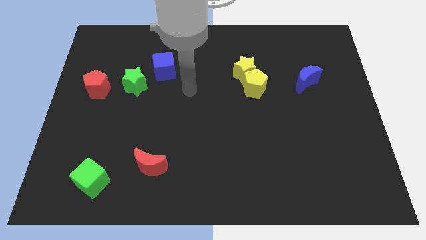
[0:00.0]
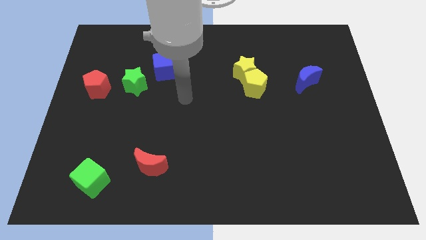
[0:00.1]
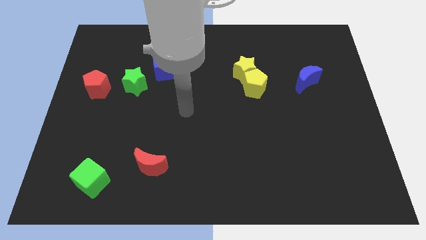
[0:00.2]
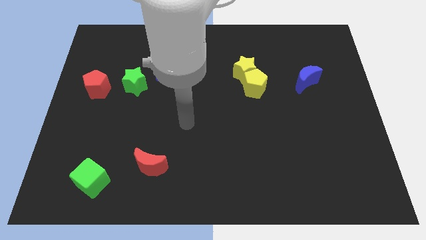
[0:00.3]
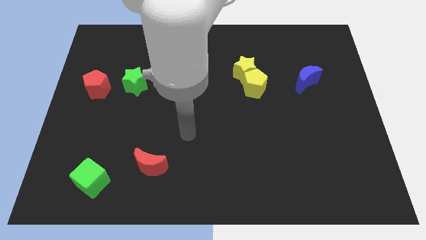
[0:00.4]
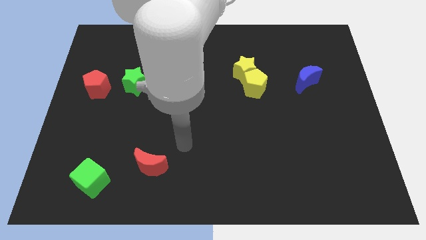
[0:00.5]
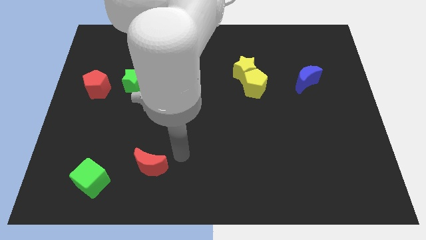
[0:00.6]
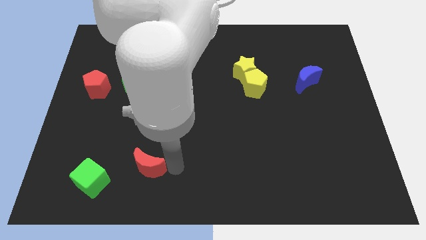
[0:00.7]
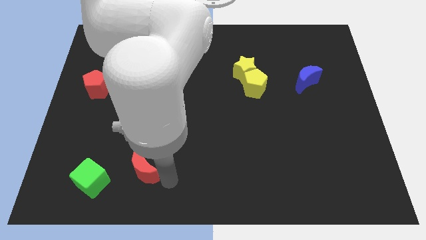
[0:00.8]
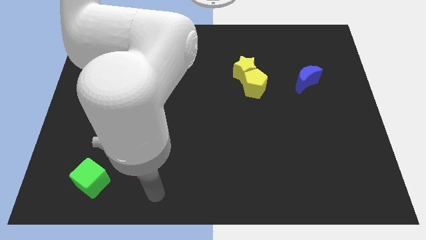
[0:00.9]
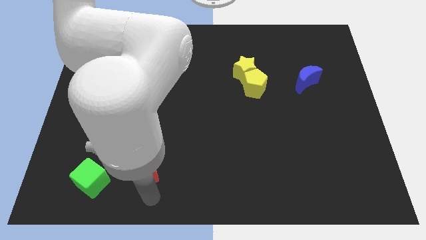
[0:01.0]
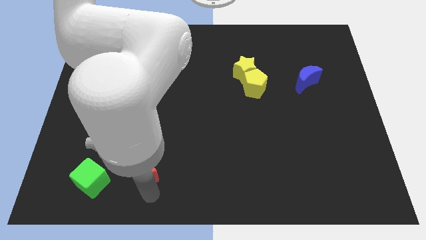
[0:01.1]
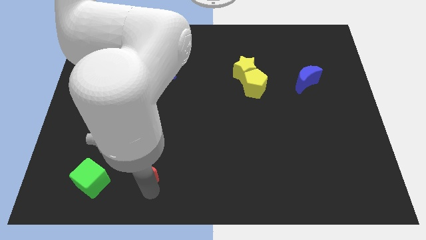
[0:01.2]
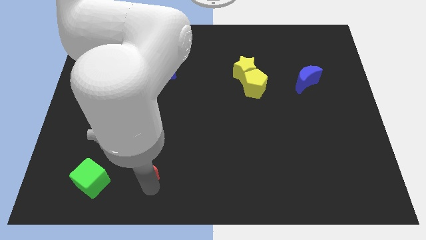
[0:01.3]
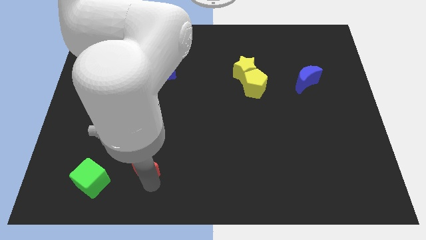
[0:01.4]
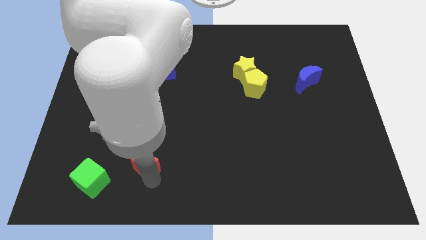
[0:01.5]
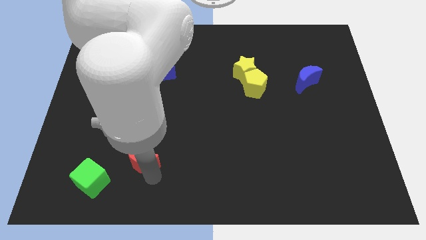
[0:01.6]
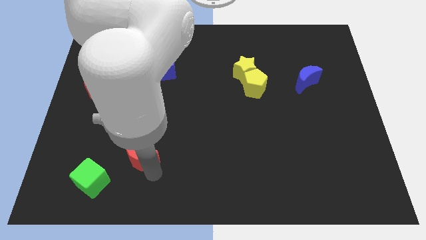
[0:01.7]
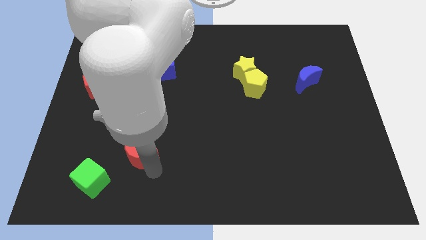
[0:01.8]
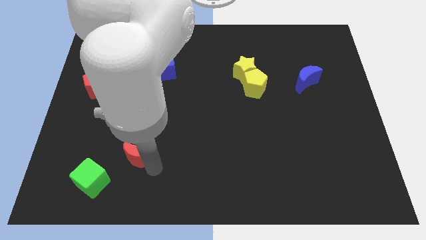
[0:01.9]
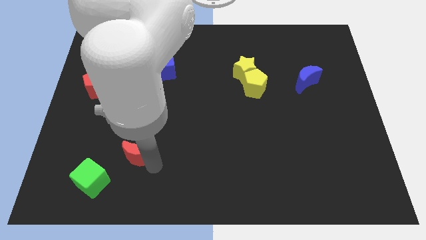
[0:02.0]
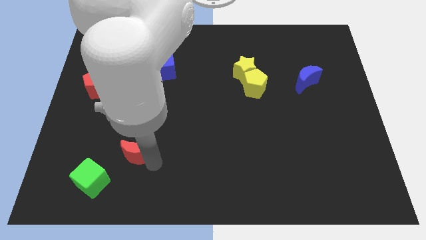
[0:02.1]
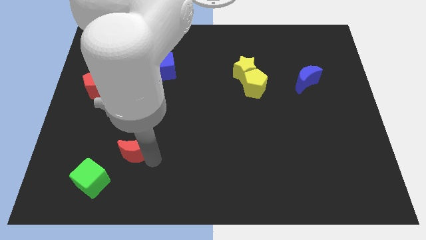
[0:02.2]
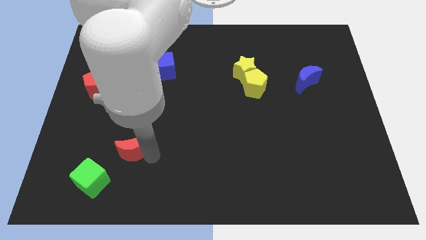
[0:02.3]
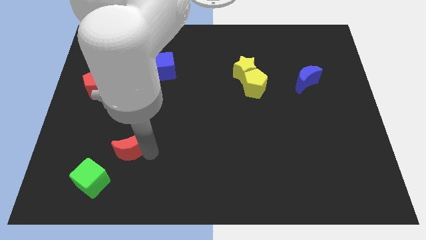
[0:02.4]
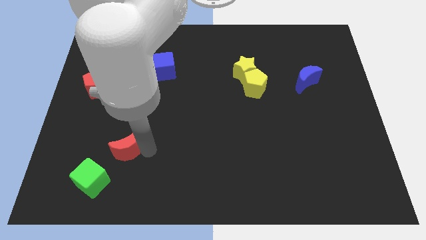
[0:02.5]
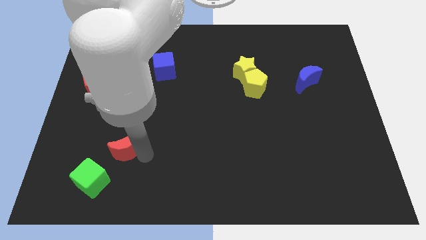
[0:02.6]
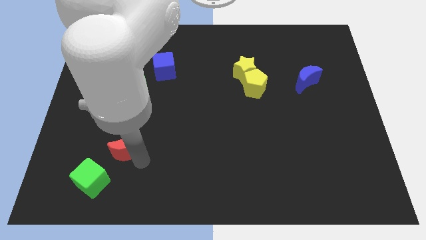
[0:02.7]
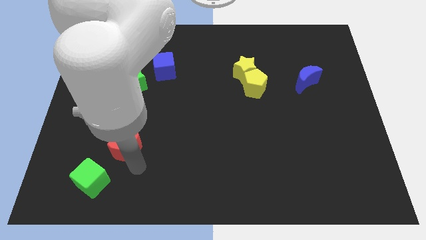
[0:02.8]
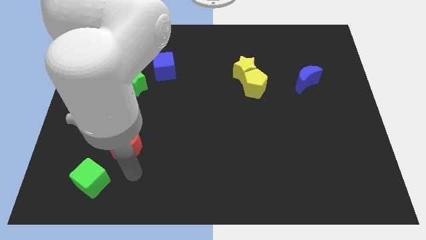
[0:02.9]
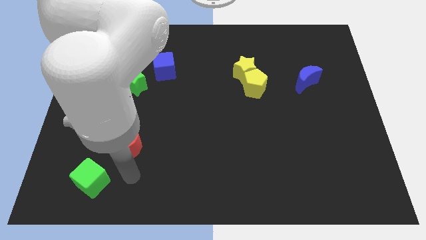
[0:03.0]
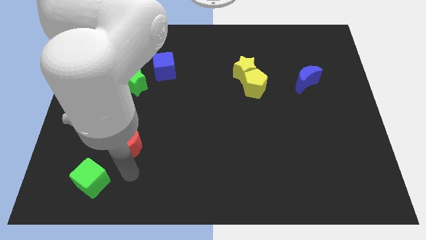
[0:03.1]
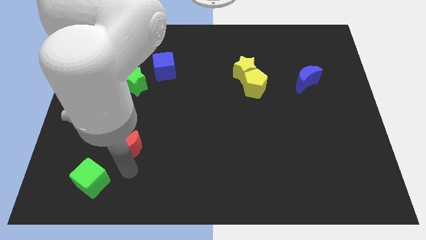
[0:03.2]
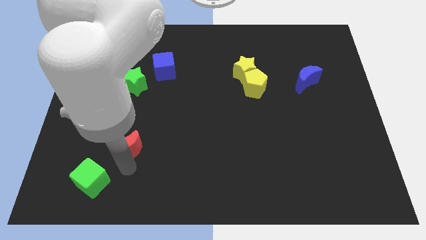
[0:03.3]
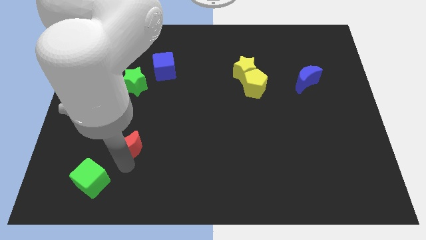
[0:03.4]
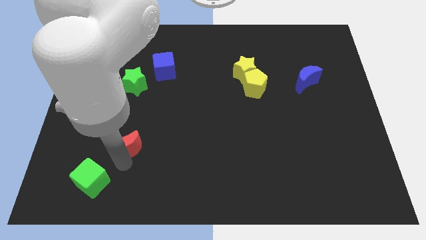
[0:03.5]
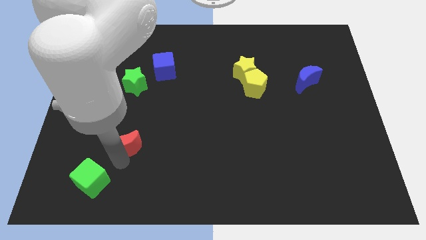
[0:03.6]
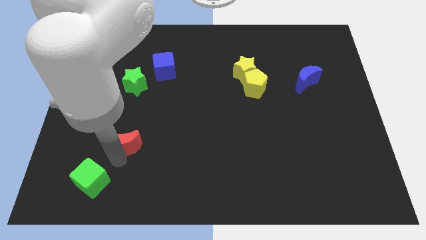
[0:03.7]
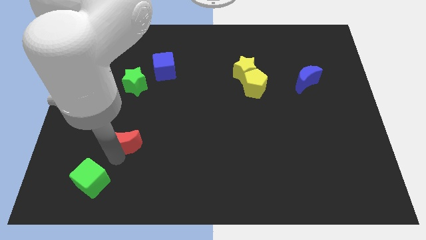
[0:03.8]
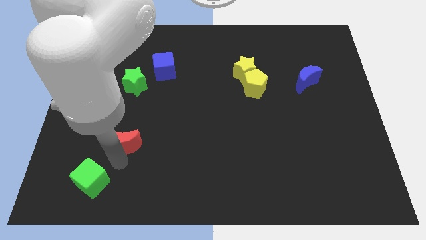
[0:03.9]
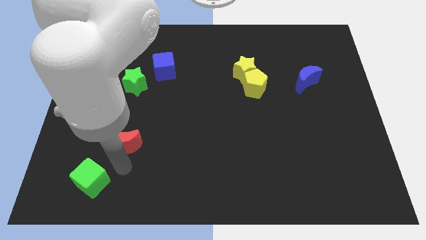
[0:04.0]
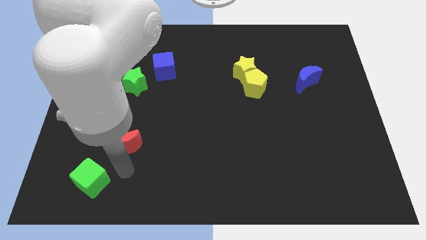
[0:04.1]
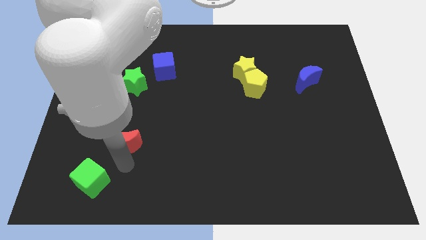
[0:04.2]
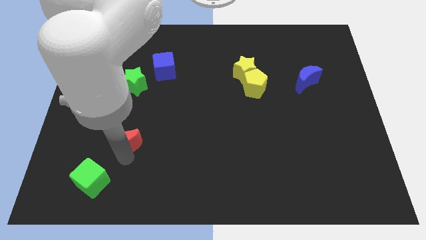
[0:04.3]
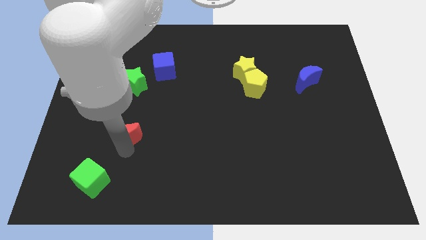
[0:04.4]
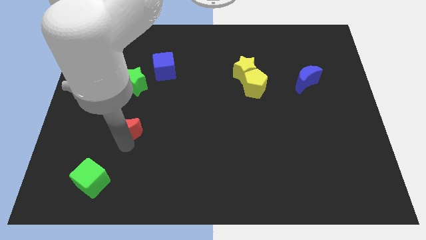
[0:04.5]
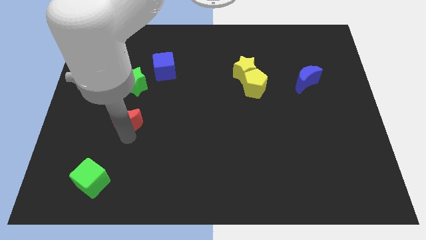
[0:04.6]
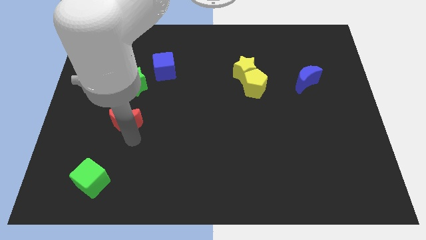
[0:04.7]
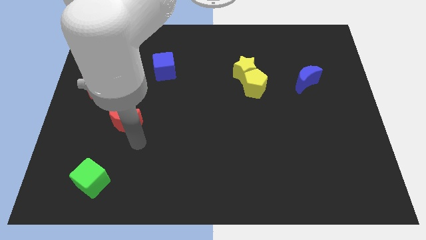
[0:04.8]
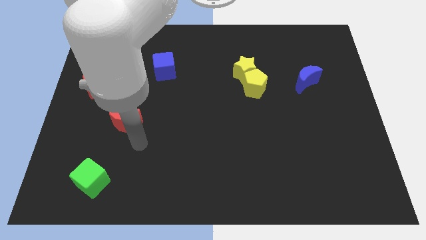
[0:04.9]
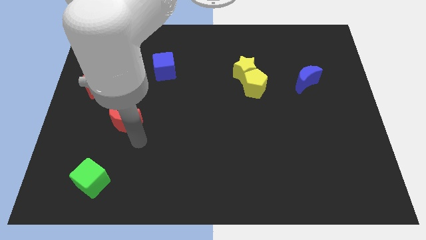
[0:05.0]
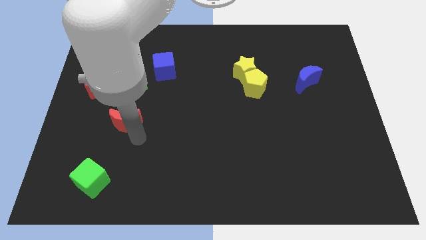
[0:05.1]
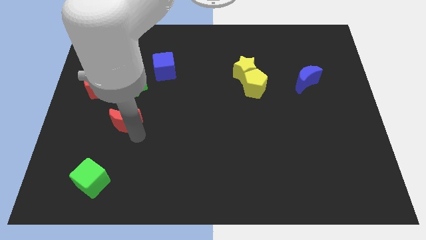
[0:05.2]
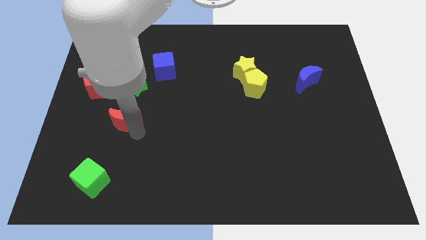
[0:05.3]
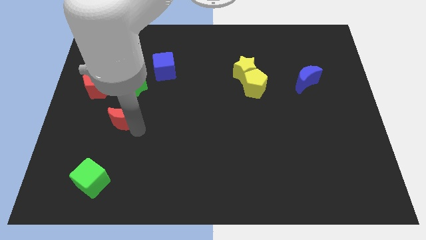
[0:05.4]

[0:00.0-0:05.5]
push the red moon to the bottom right of the red pentagon

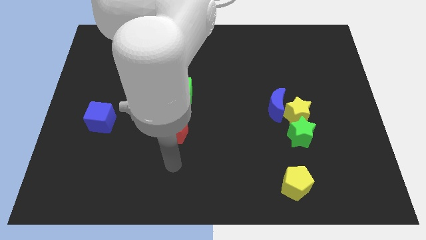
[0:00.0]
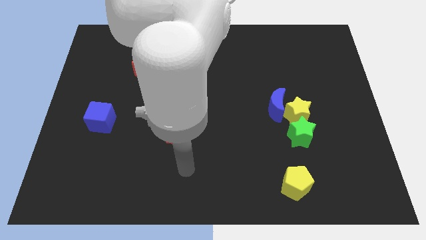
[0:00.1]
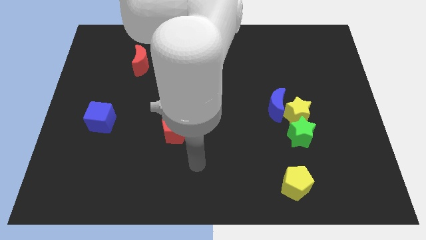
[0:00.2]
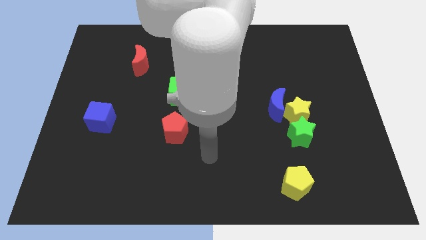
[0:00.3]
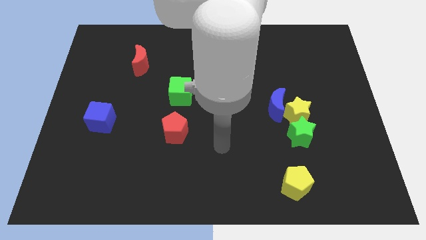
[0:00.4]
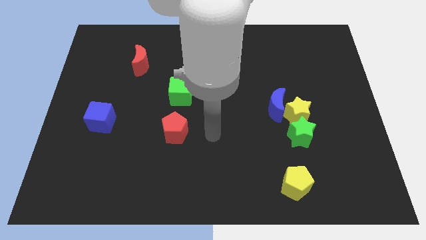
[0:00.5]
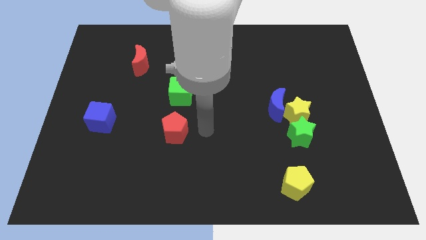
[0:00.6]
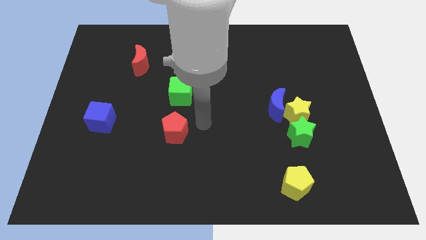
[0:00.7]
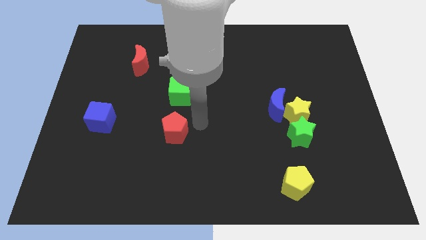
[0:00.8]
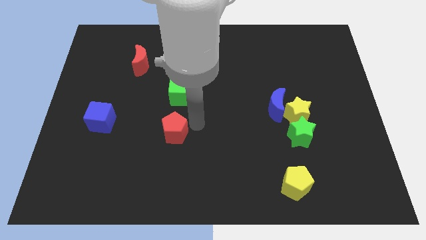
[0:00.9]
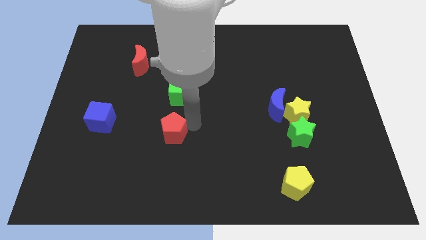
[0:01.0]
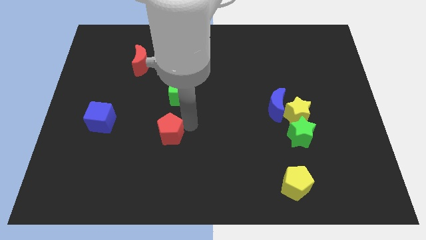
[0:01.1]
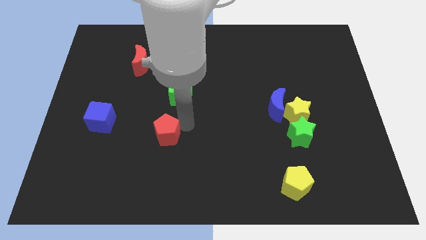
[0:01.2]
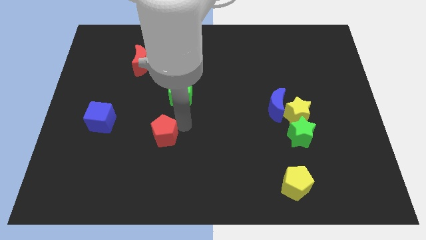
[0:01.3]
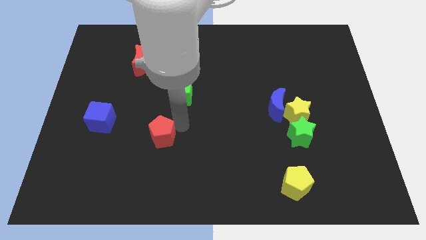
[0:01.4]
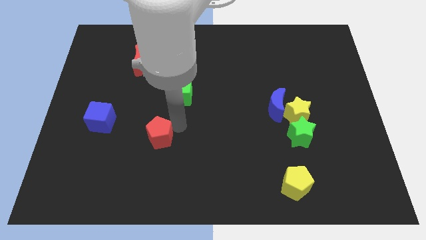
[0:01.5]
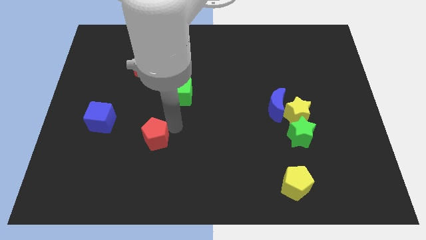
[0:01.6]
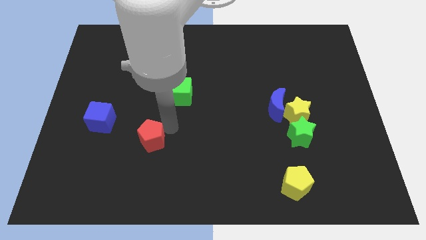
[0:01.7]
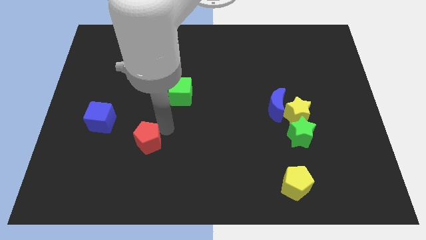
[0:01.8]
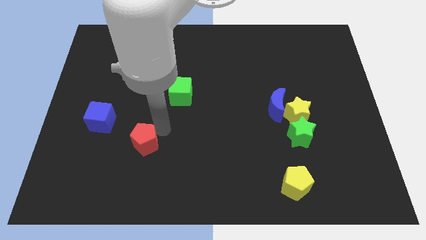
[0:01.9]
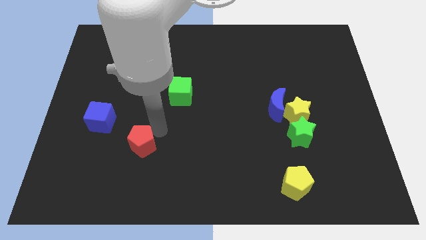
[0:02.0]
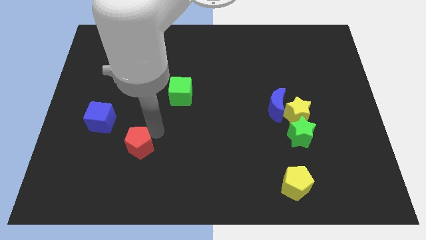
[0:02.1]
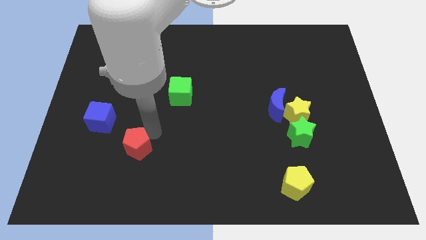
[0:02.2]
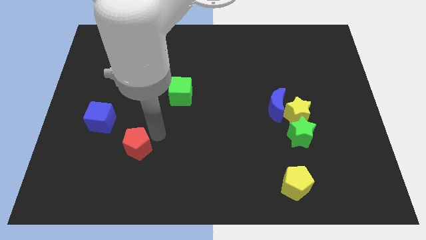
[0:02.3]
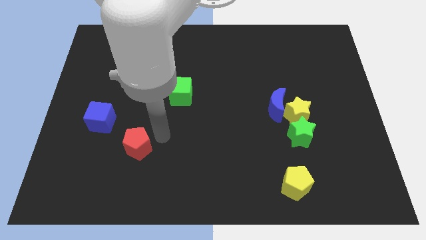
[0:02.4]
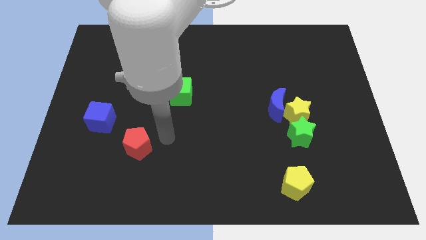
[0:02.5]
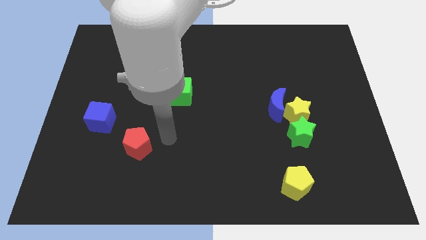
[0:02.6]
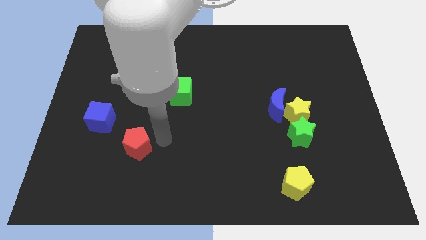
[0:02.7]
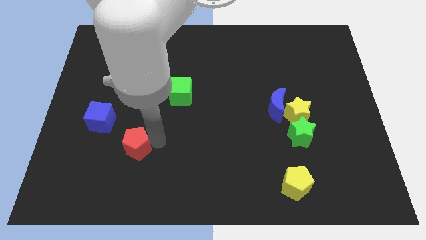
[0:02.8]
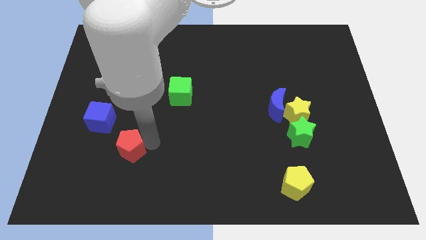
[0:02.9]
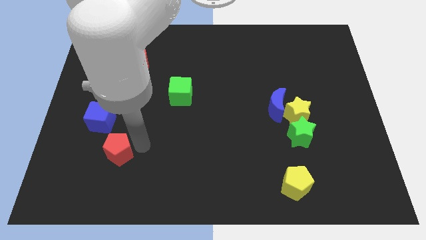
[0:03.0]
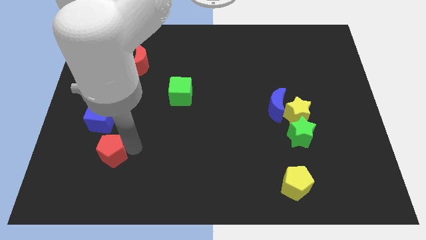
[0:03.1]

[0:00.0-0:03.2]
put the red pentagon below the blue cube
